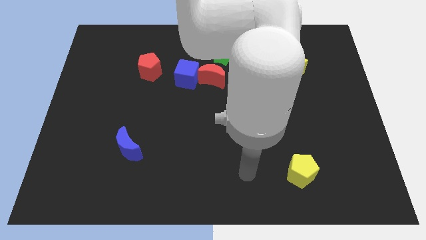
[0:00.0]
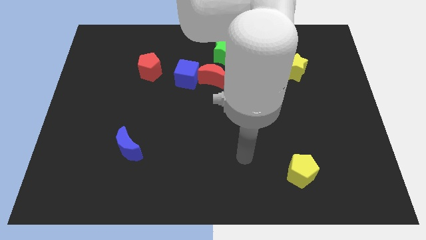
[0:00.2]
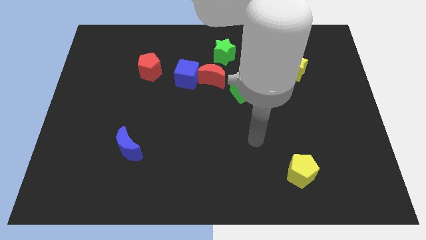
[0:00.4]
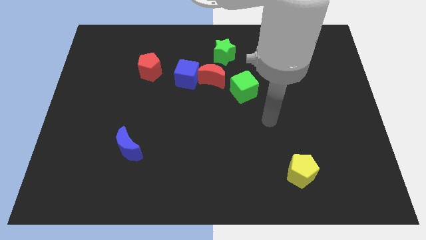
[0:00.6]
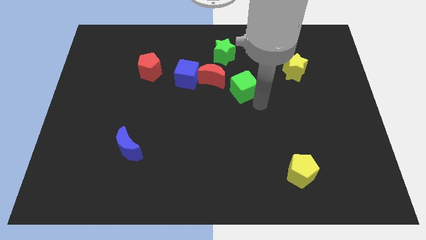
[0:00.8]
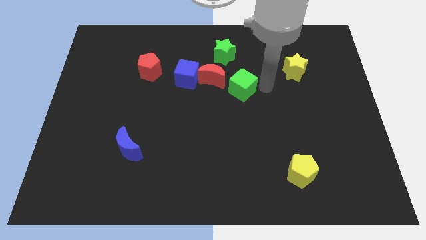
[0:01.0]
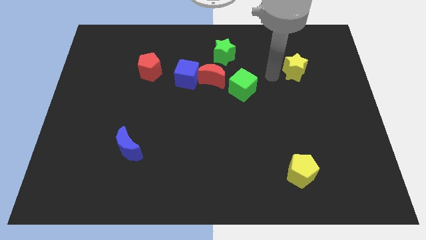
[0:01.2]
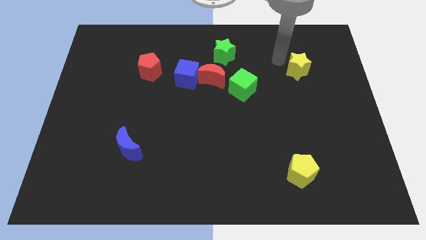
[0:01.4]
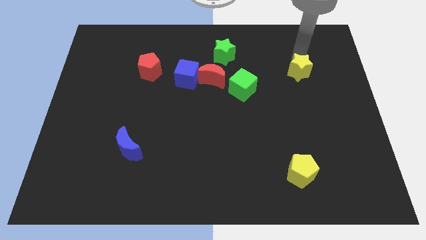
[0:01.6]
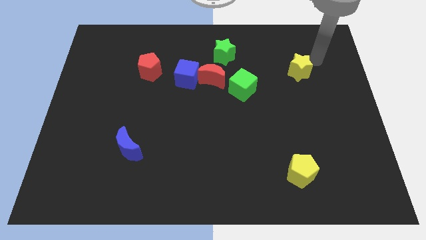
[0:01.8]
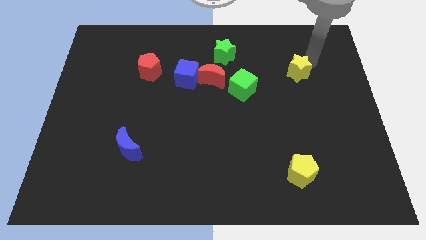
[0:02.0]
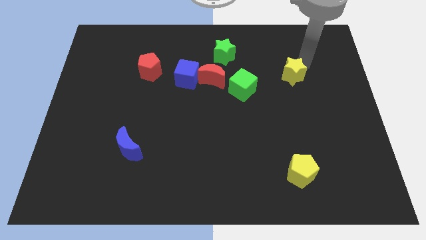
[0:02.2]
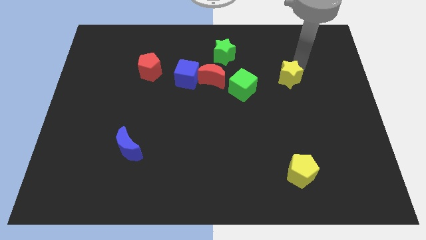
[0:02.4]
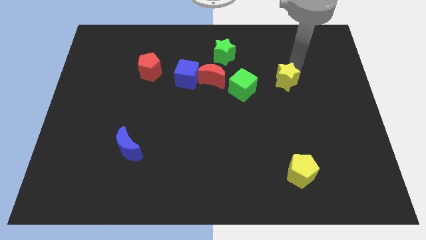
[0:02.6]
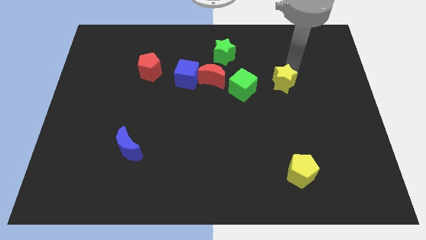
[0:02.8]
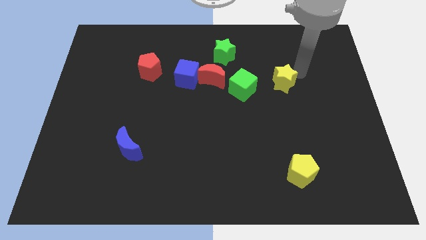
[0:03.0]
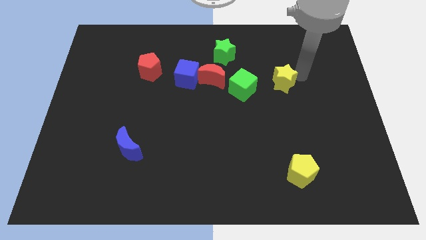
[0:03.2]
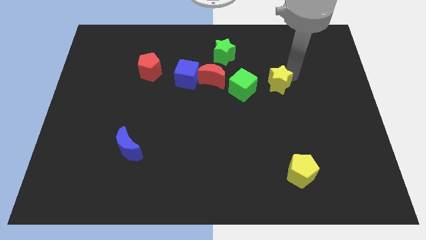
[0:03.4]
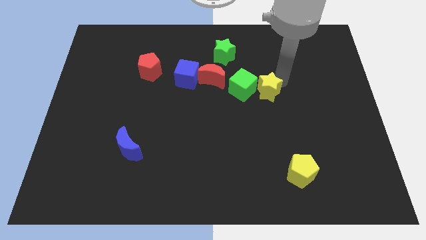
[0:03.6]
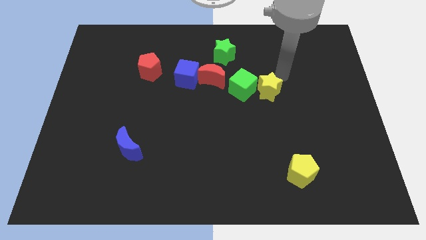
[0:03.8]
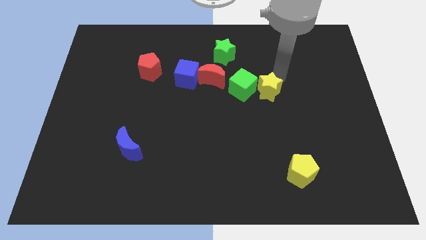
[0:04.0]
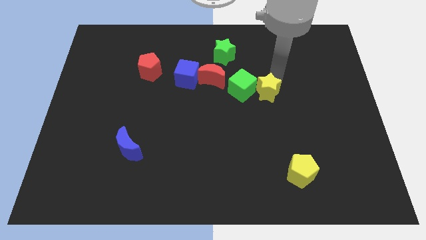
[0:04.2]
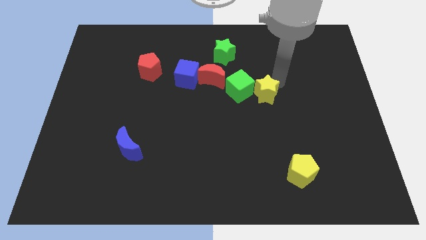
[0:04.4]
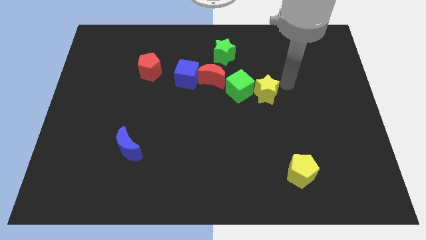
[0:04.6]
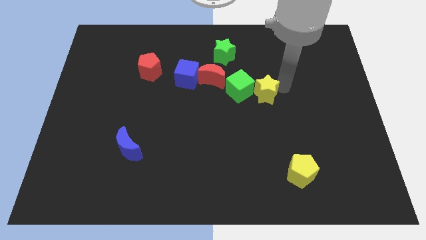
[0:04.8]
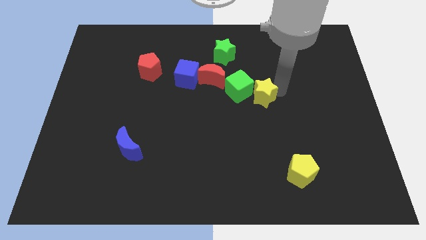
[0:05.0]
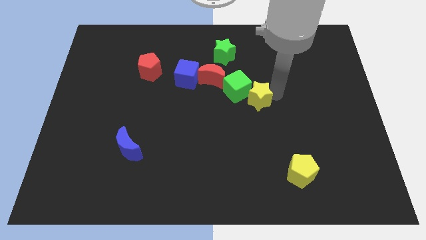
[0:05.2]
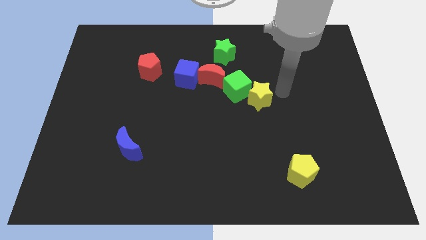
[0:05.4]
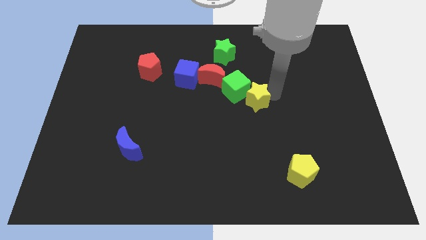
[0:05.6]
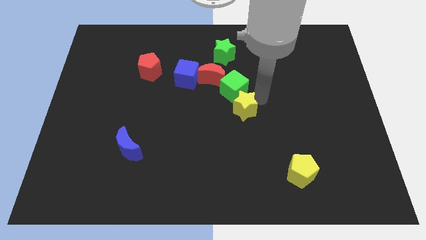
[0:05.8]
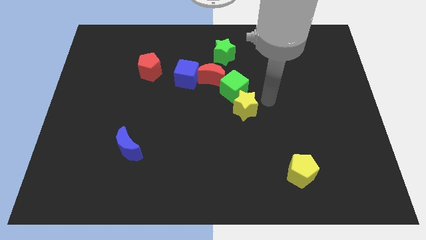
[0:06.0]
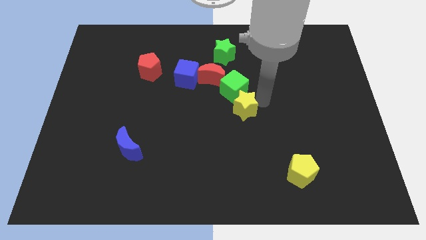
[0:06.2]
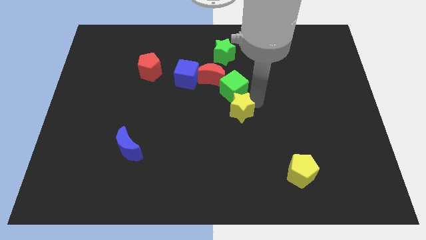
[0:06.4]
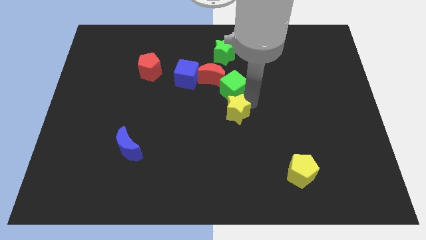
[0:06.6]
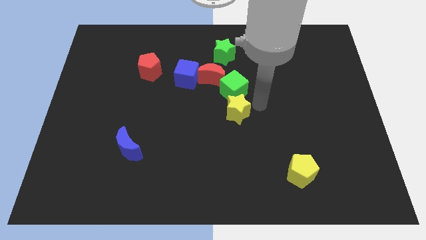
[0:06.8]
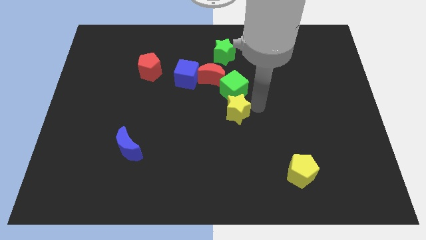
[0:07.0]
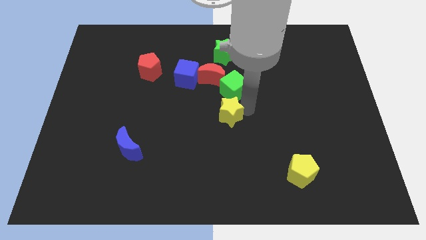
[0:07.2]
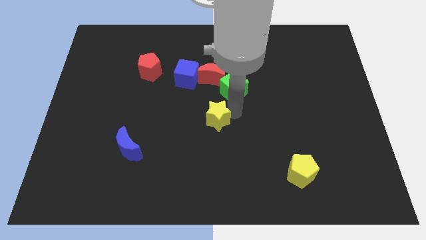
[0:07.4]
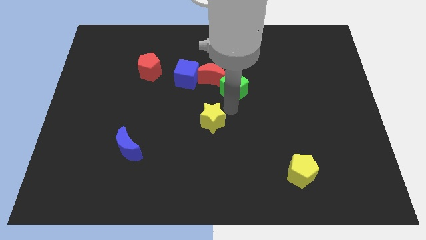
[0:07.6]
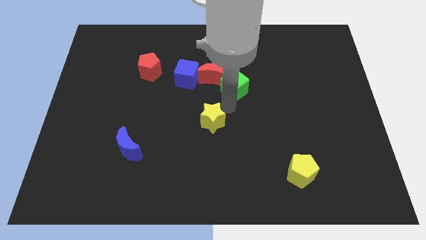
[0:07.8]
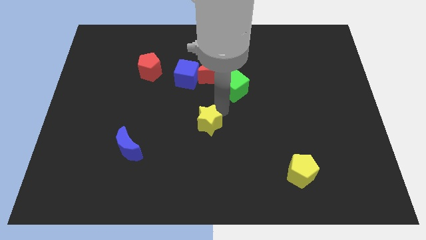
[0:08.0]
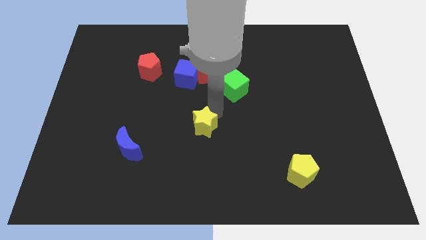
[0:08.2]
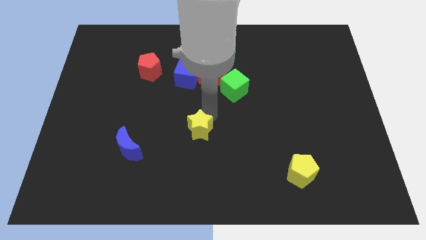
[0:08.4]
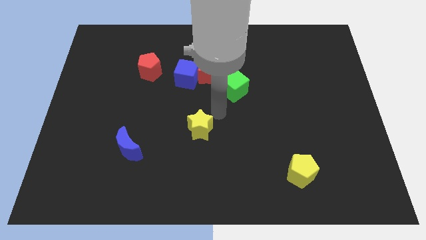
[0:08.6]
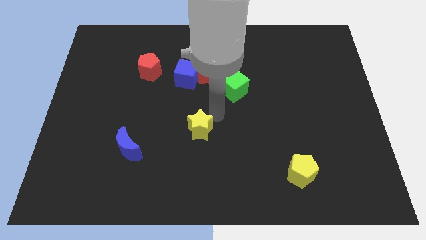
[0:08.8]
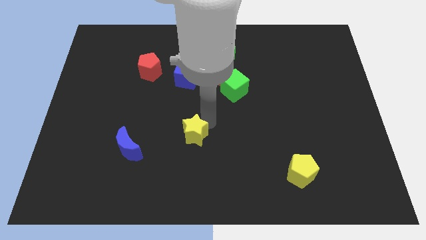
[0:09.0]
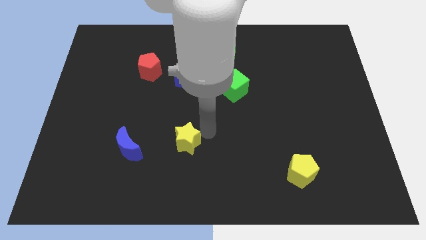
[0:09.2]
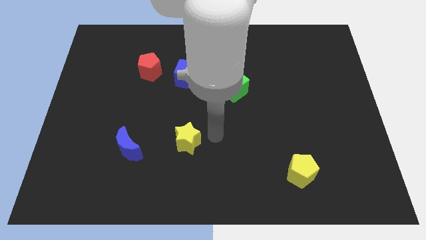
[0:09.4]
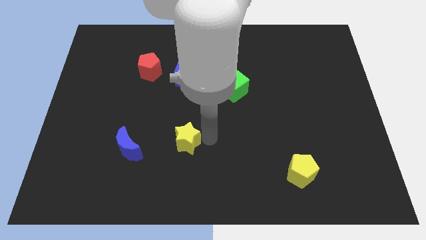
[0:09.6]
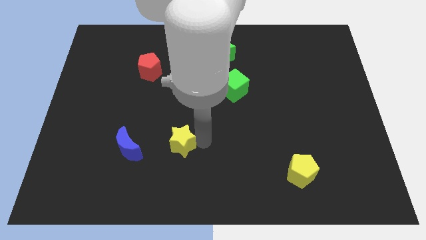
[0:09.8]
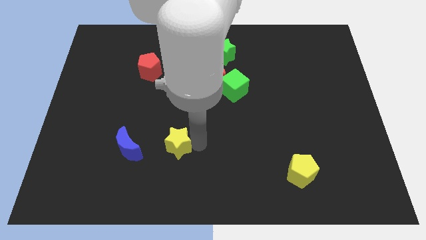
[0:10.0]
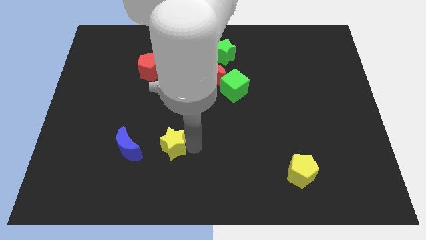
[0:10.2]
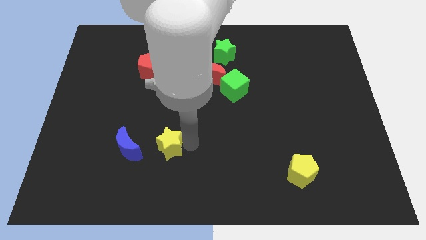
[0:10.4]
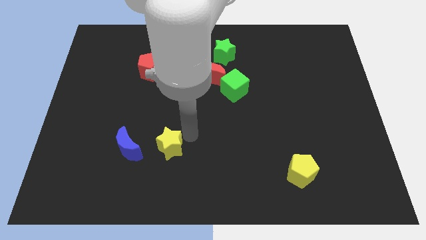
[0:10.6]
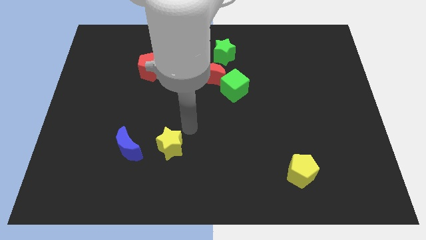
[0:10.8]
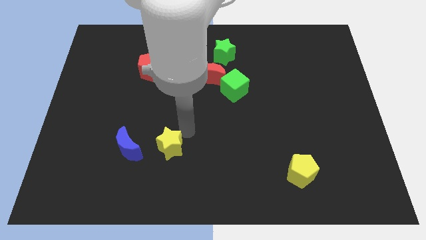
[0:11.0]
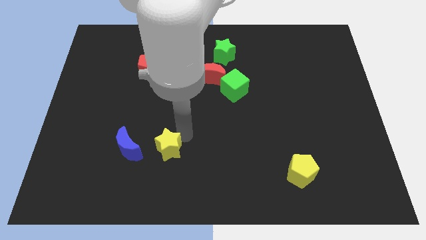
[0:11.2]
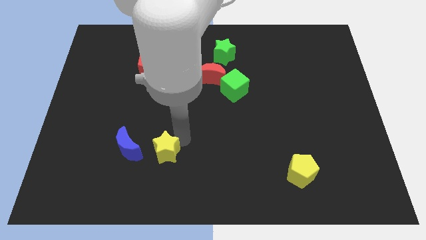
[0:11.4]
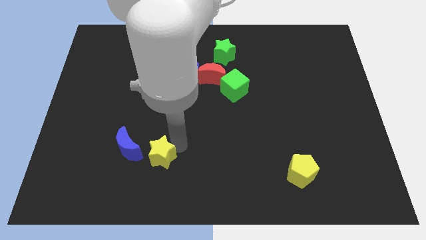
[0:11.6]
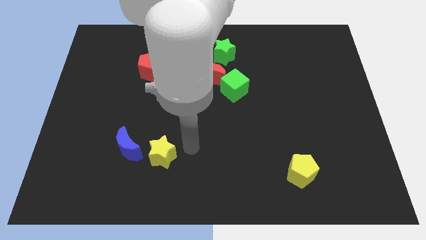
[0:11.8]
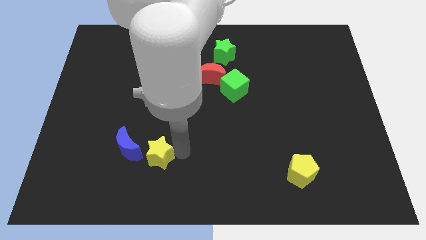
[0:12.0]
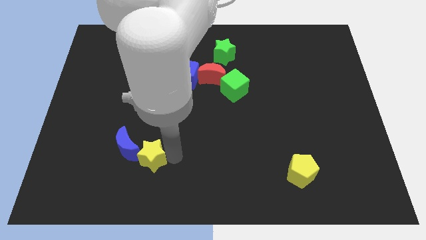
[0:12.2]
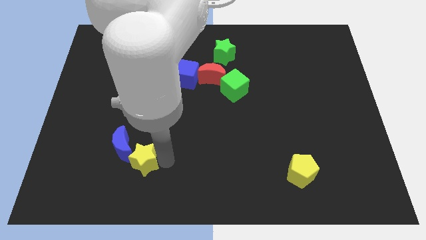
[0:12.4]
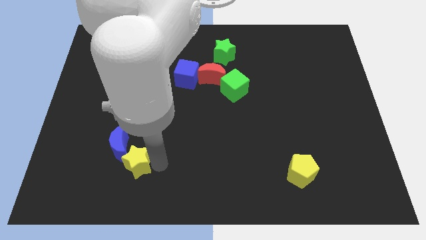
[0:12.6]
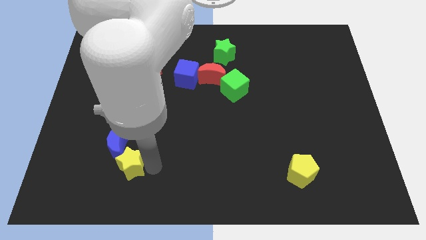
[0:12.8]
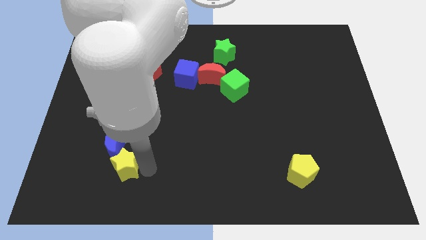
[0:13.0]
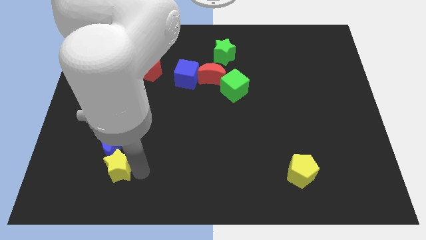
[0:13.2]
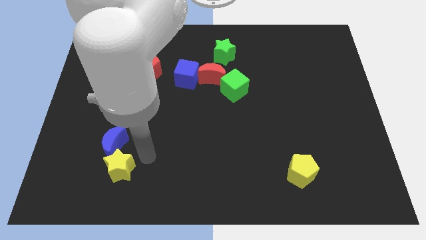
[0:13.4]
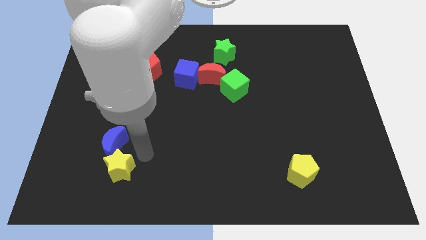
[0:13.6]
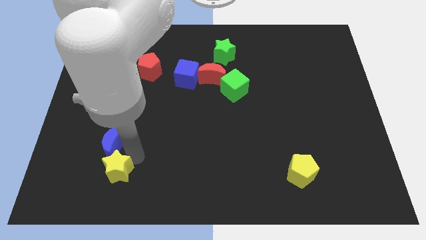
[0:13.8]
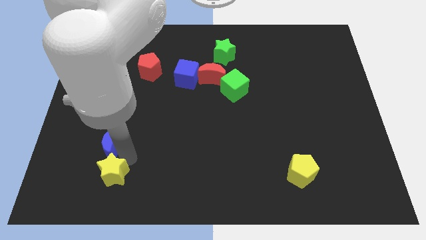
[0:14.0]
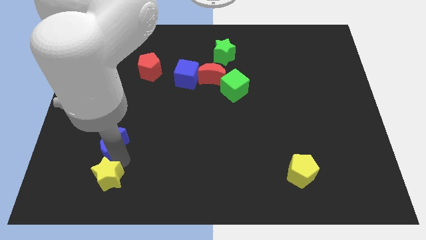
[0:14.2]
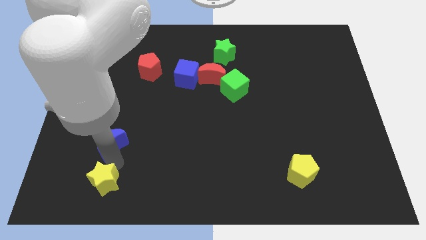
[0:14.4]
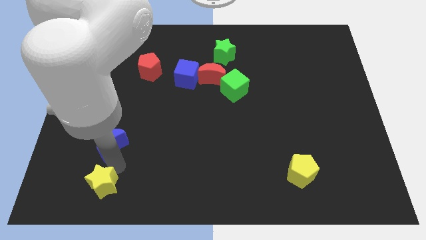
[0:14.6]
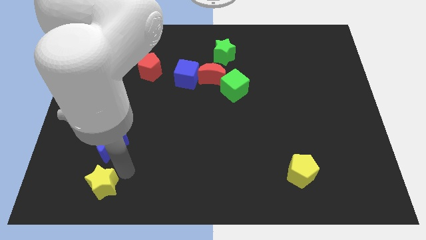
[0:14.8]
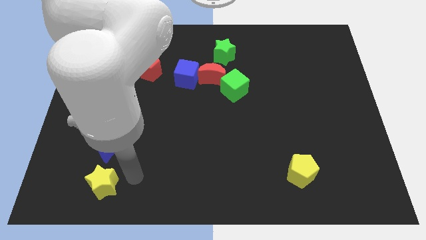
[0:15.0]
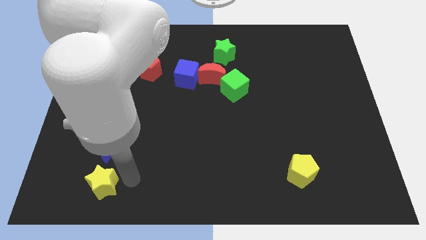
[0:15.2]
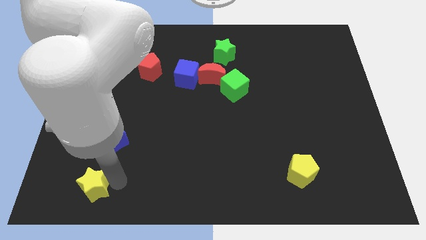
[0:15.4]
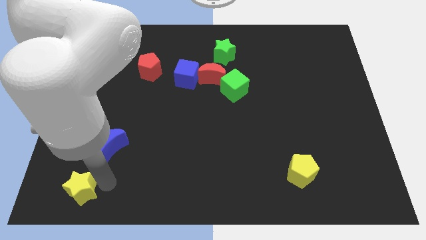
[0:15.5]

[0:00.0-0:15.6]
slide the yellow star to the bottom left corner
